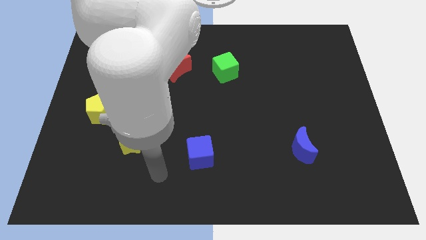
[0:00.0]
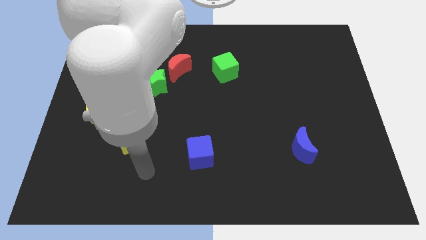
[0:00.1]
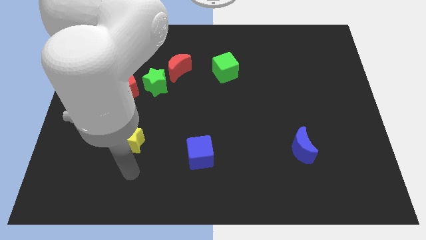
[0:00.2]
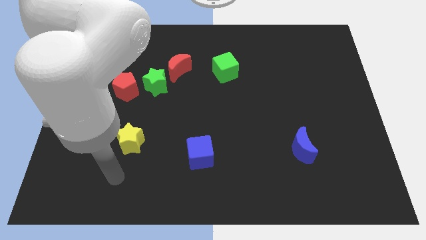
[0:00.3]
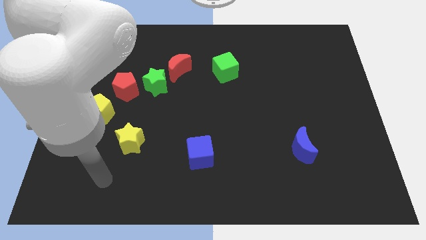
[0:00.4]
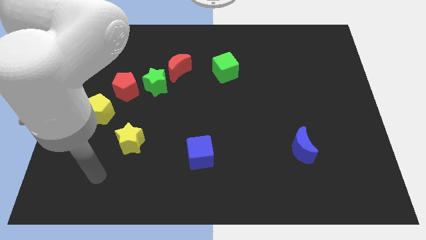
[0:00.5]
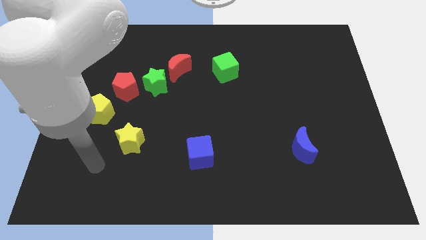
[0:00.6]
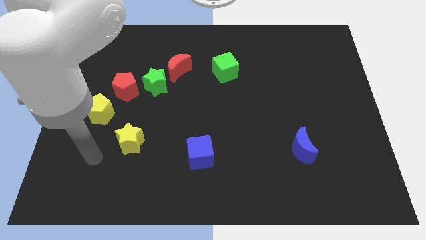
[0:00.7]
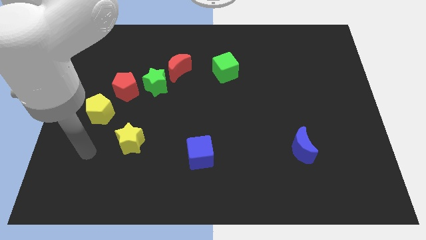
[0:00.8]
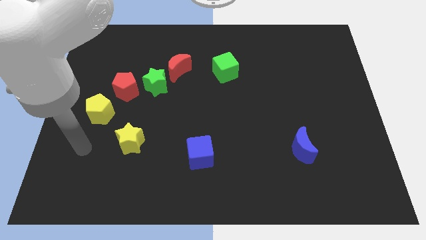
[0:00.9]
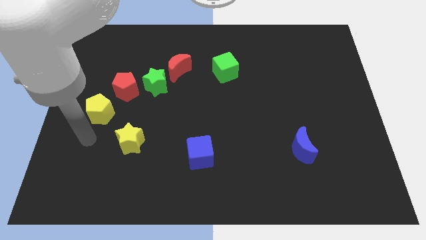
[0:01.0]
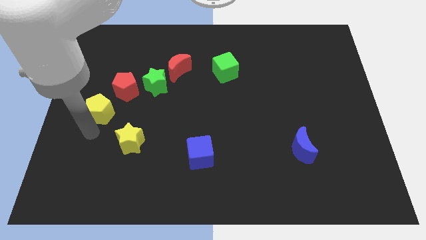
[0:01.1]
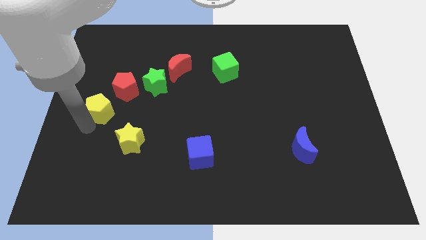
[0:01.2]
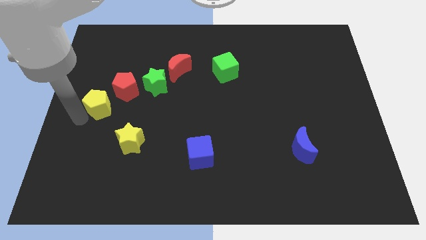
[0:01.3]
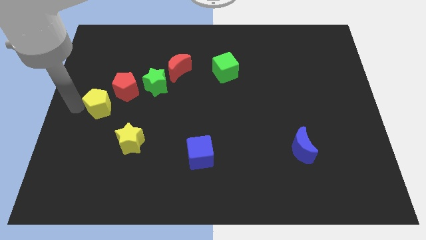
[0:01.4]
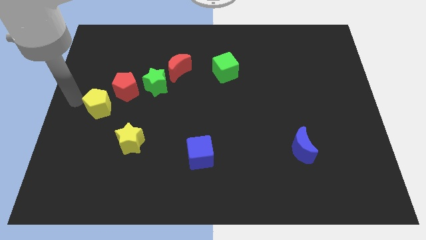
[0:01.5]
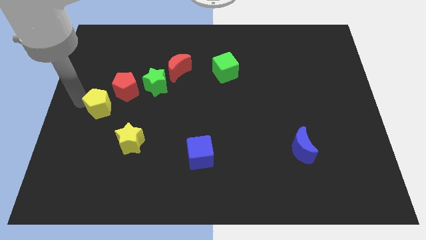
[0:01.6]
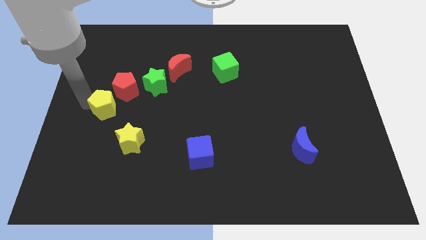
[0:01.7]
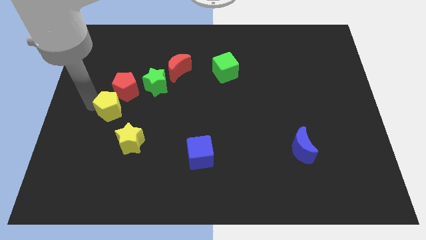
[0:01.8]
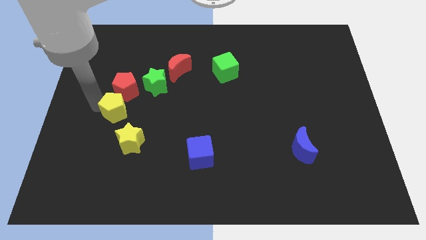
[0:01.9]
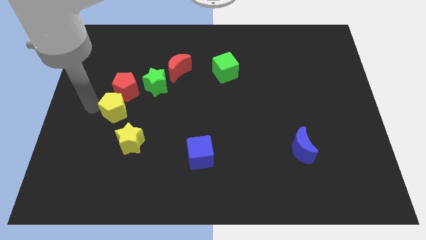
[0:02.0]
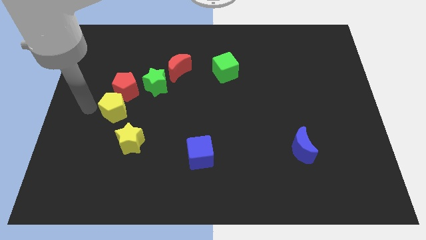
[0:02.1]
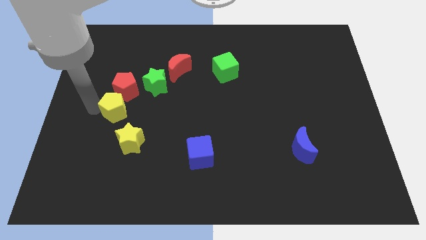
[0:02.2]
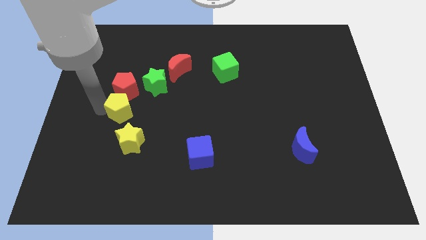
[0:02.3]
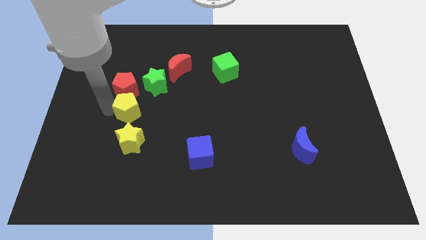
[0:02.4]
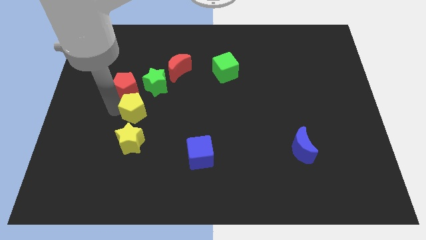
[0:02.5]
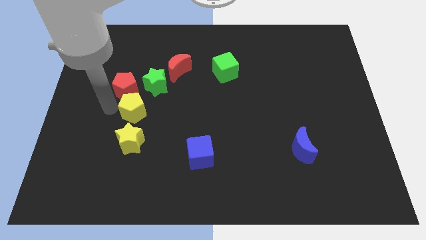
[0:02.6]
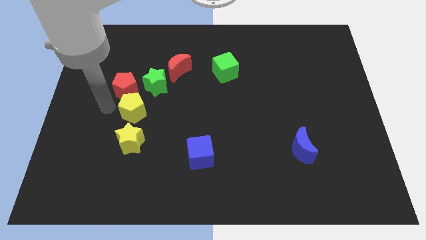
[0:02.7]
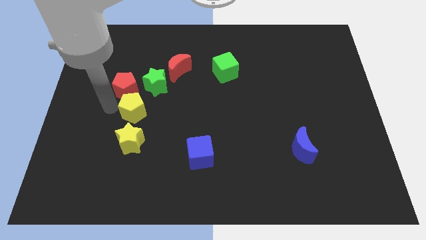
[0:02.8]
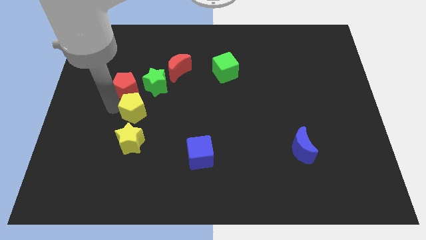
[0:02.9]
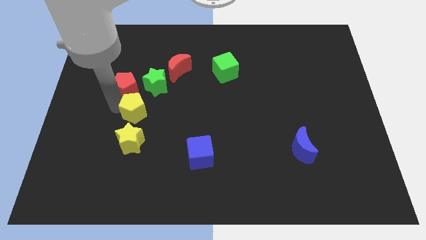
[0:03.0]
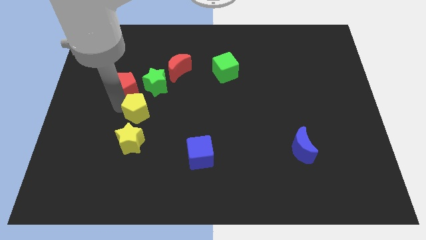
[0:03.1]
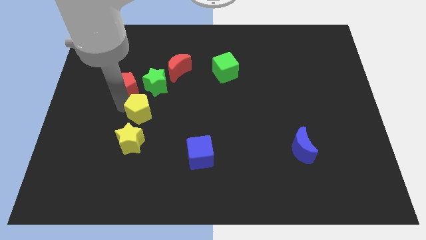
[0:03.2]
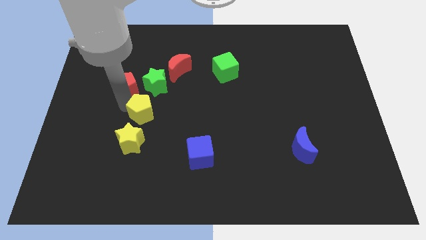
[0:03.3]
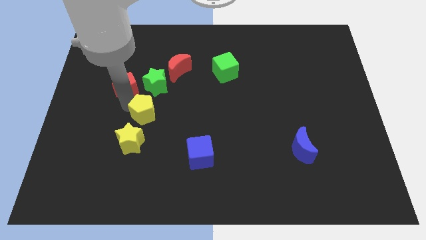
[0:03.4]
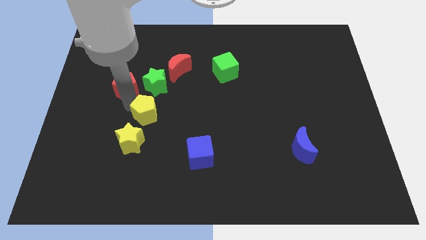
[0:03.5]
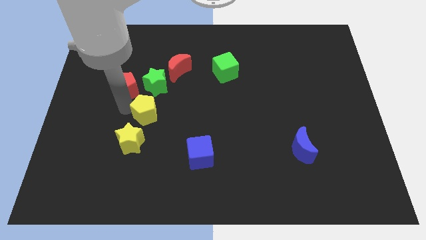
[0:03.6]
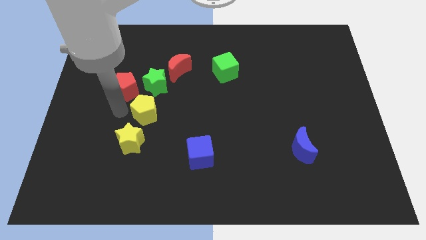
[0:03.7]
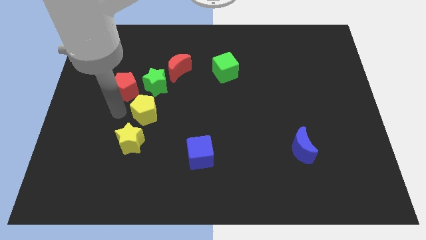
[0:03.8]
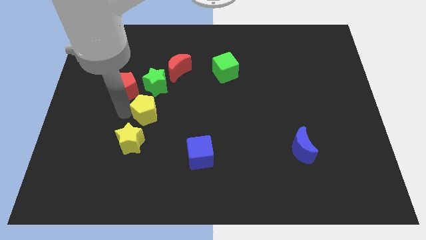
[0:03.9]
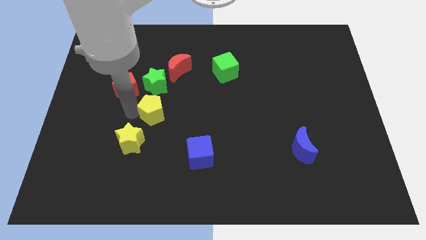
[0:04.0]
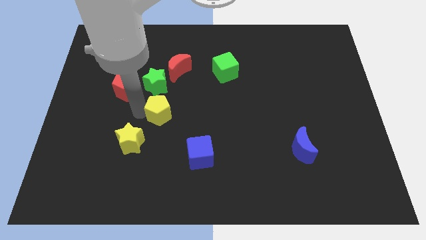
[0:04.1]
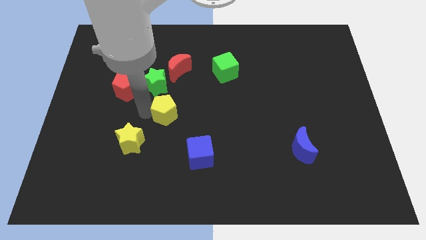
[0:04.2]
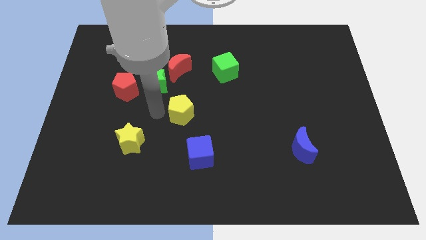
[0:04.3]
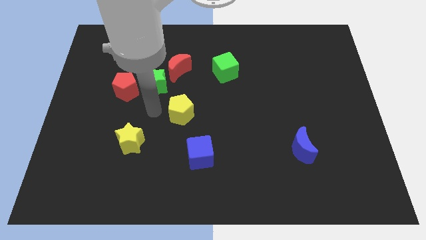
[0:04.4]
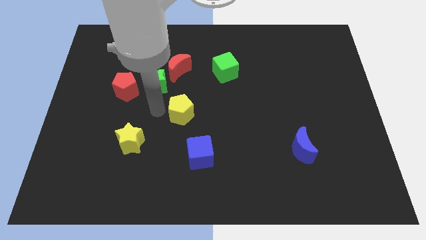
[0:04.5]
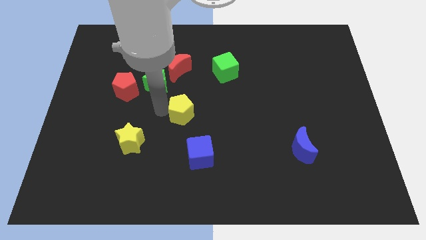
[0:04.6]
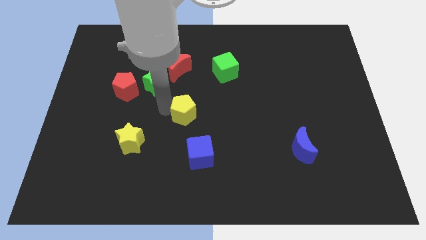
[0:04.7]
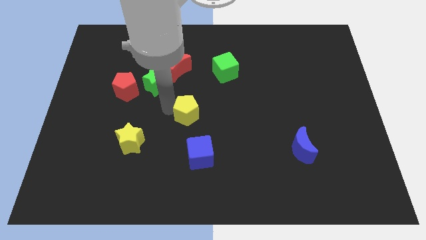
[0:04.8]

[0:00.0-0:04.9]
slide the yellow pentagon right

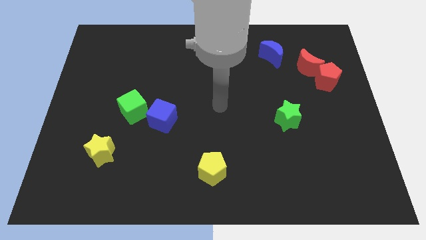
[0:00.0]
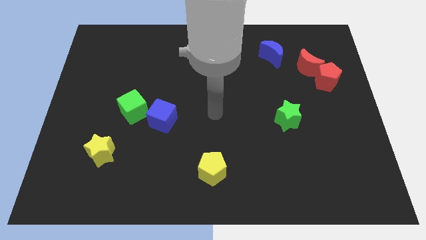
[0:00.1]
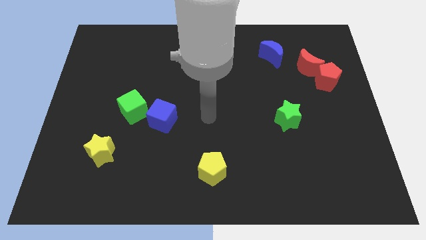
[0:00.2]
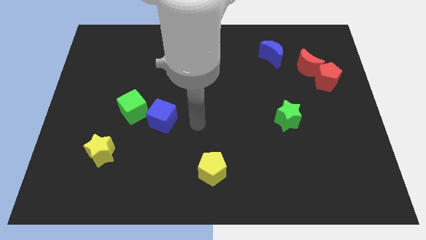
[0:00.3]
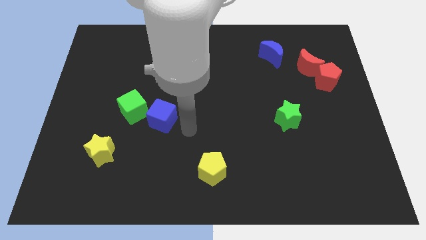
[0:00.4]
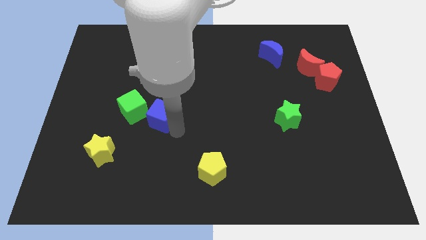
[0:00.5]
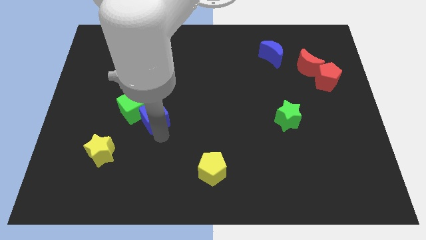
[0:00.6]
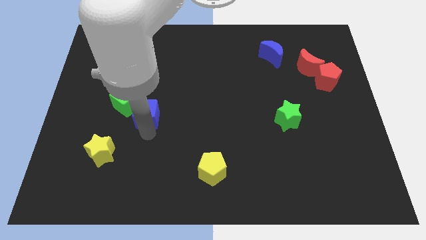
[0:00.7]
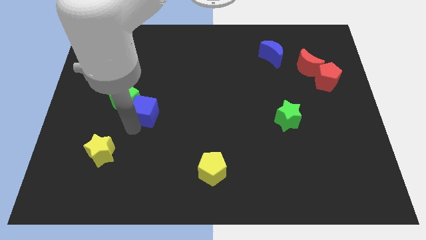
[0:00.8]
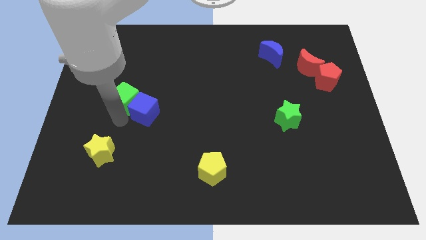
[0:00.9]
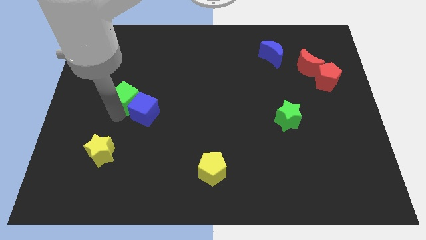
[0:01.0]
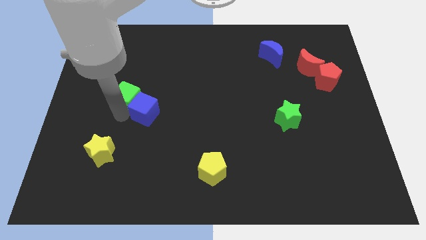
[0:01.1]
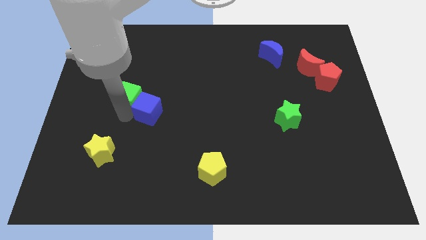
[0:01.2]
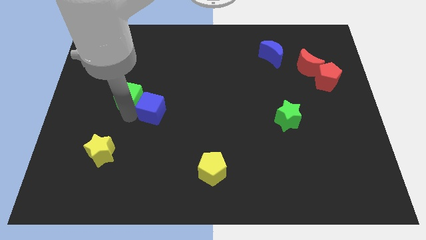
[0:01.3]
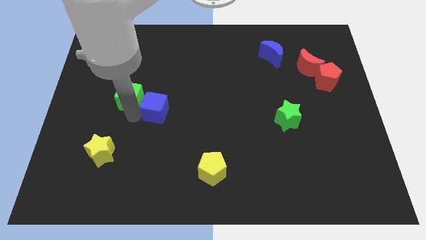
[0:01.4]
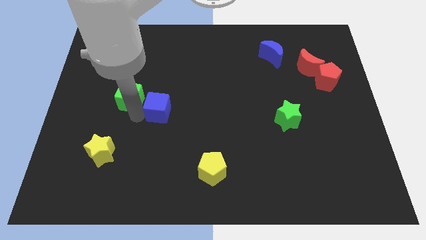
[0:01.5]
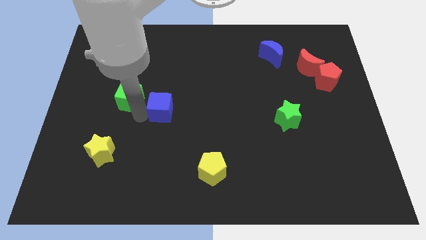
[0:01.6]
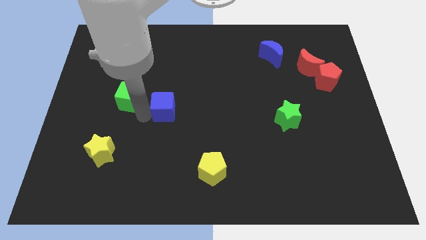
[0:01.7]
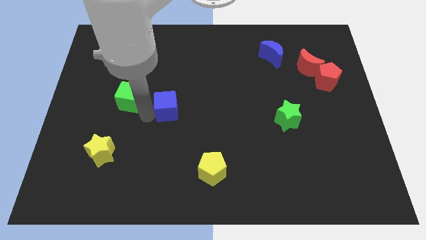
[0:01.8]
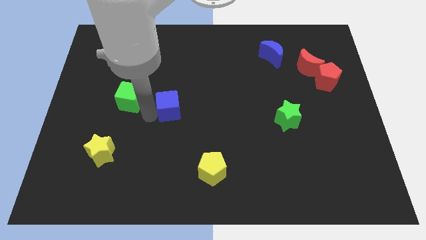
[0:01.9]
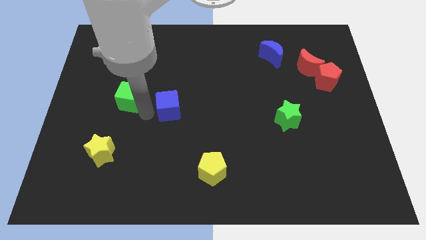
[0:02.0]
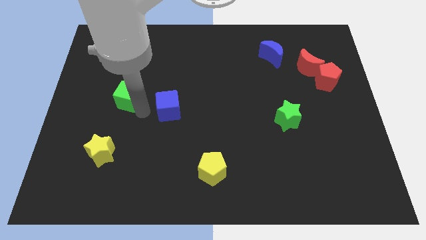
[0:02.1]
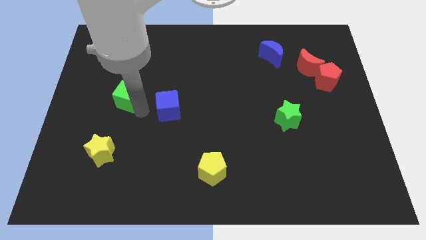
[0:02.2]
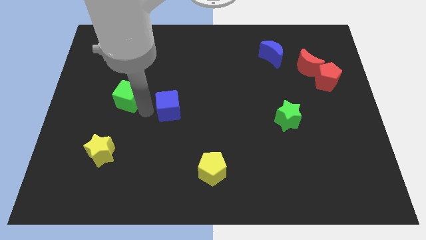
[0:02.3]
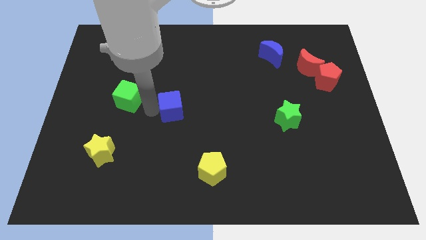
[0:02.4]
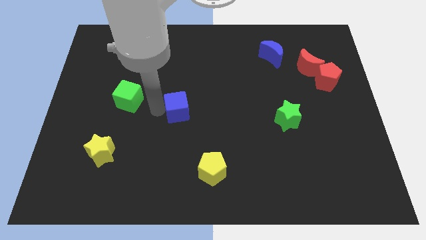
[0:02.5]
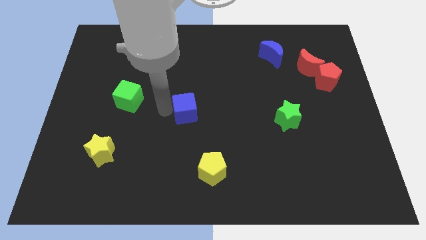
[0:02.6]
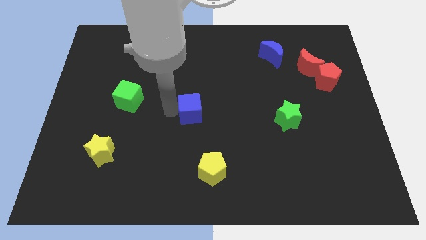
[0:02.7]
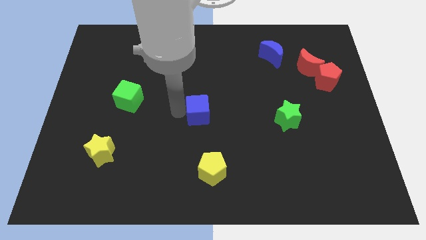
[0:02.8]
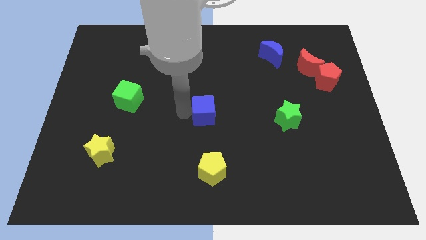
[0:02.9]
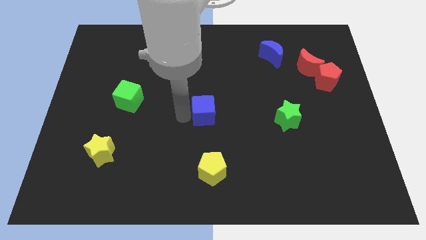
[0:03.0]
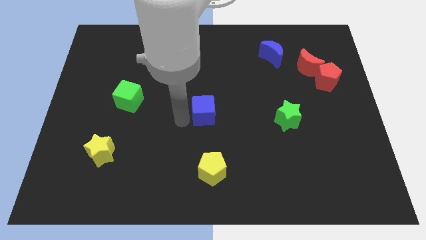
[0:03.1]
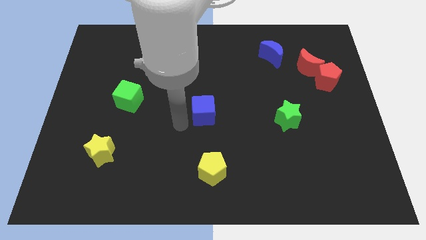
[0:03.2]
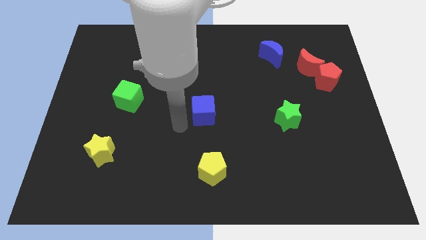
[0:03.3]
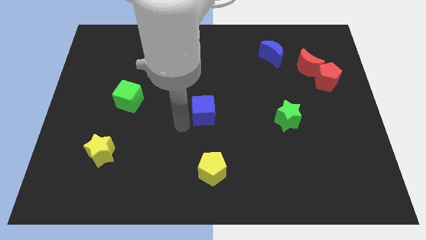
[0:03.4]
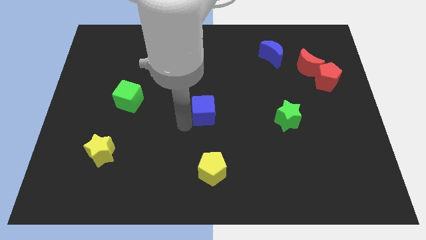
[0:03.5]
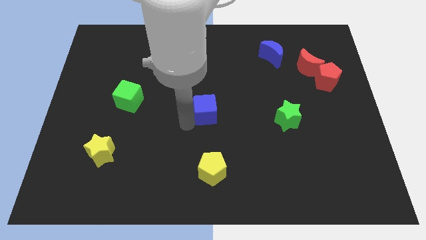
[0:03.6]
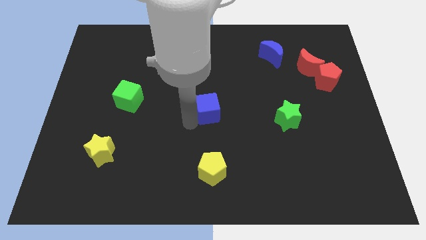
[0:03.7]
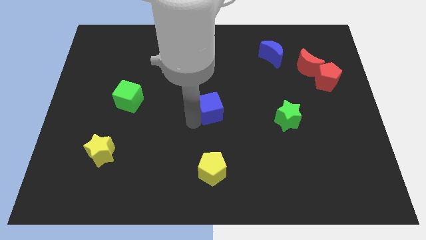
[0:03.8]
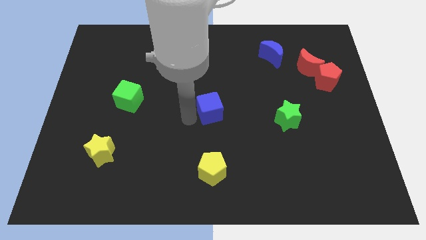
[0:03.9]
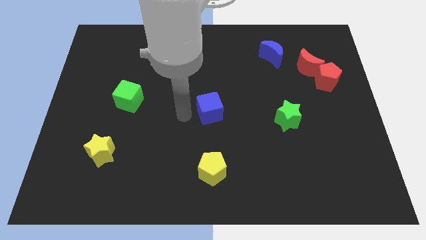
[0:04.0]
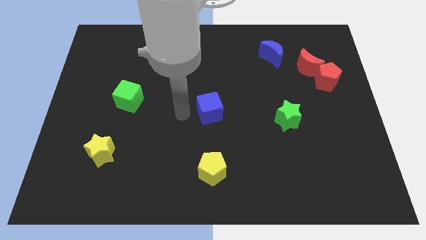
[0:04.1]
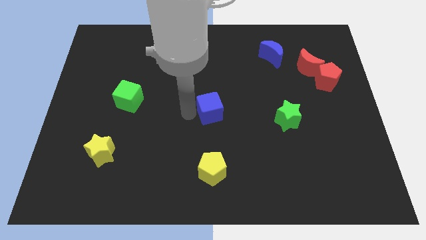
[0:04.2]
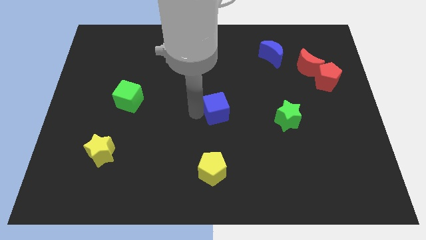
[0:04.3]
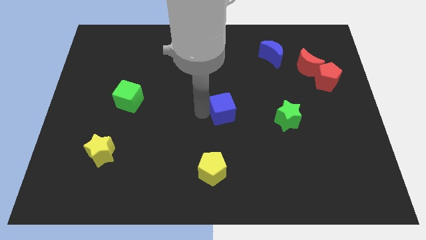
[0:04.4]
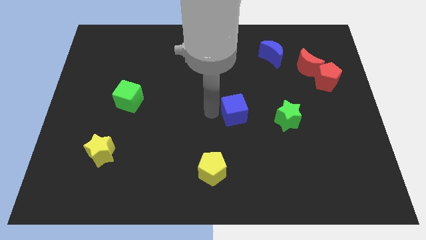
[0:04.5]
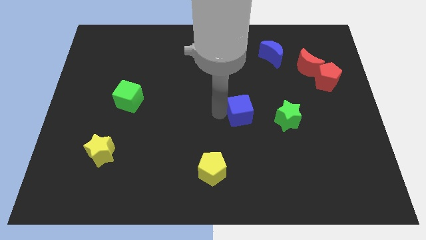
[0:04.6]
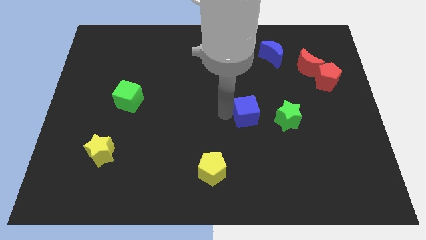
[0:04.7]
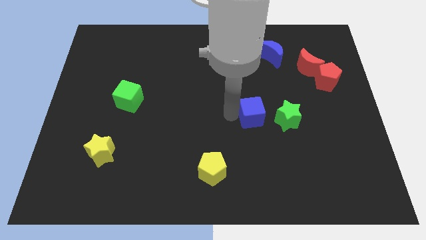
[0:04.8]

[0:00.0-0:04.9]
move the blue cube to the right
